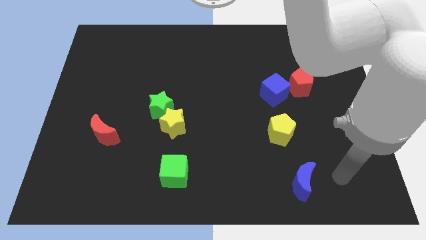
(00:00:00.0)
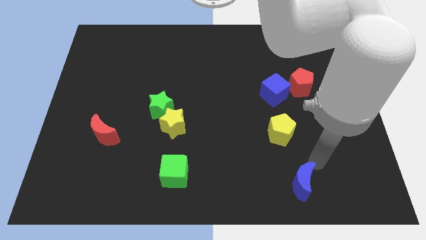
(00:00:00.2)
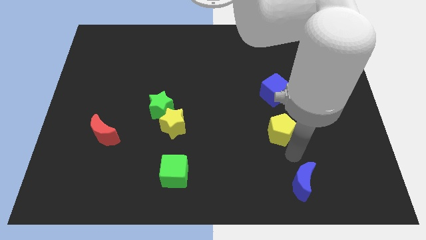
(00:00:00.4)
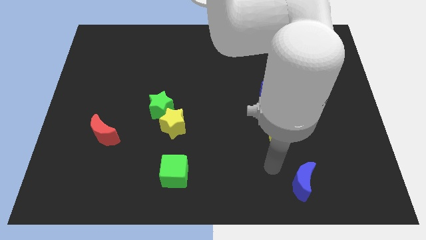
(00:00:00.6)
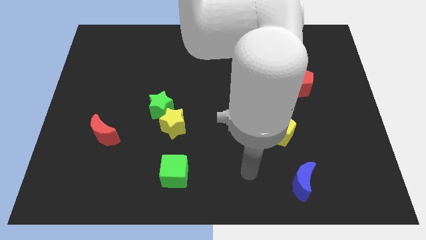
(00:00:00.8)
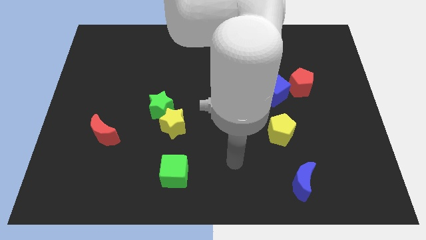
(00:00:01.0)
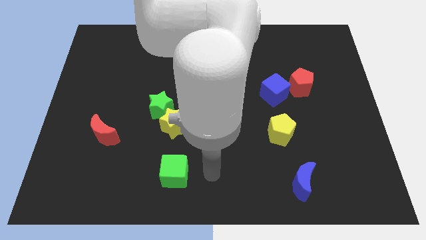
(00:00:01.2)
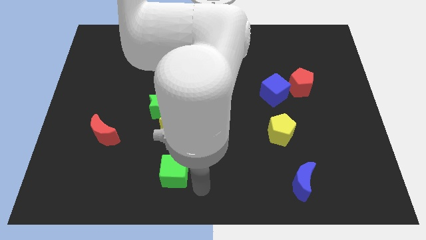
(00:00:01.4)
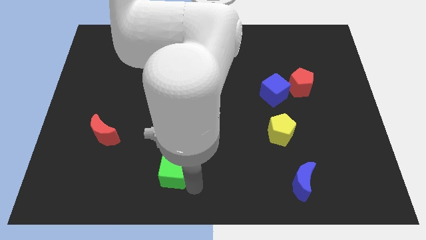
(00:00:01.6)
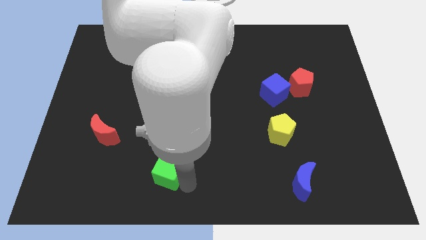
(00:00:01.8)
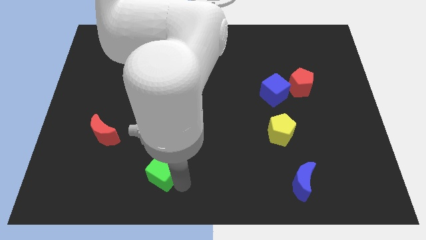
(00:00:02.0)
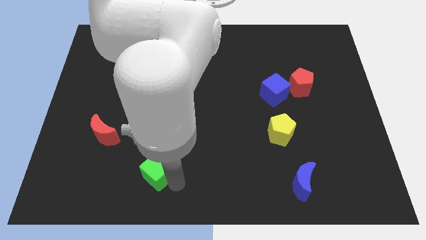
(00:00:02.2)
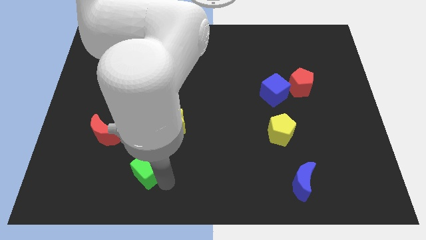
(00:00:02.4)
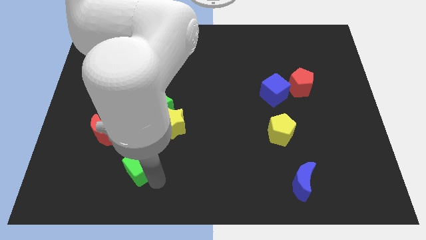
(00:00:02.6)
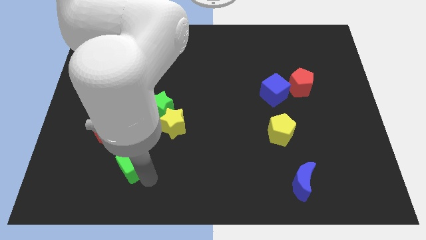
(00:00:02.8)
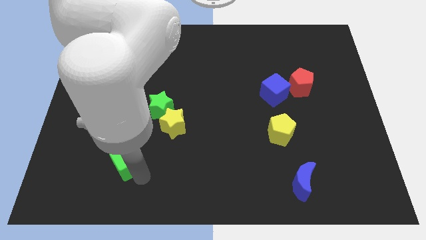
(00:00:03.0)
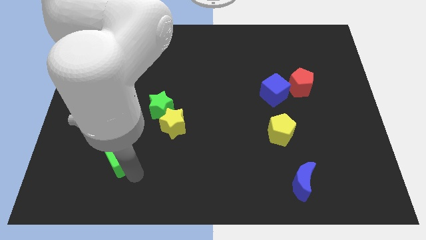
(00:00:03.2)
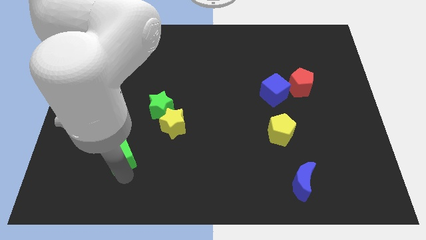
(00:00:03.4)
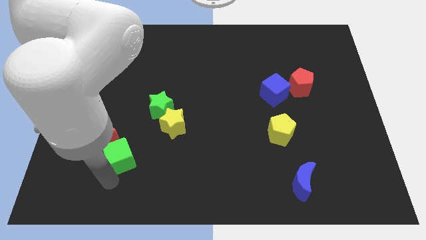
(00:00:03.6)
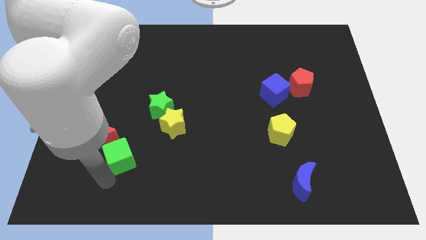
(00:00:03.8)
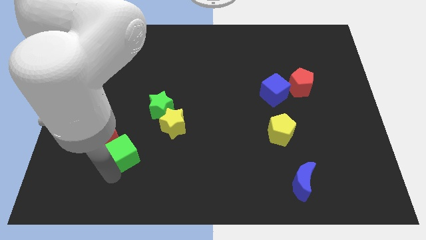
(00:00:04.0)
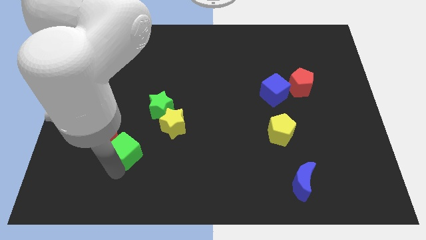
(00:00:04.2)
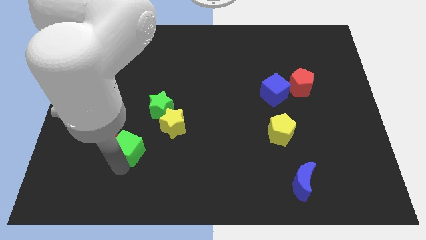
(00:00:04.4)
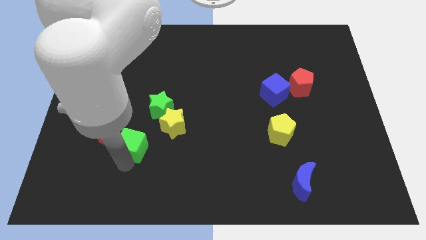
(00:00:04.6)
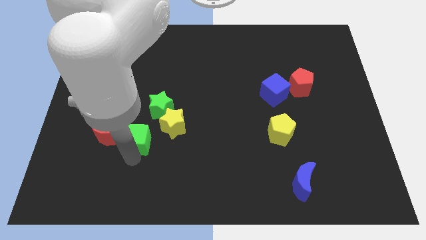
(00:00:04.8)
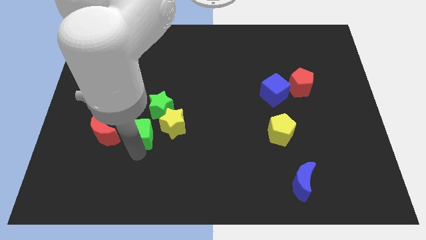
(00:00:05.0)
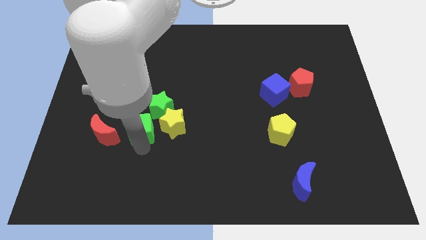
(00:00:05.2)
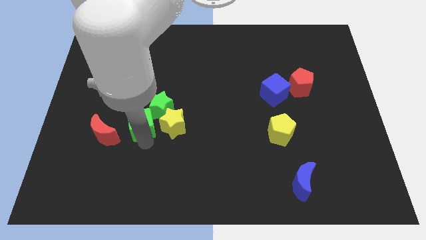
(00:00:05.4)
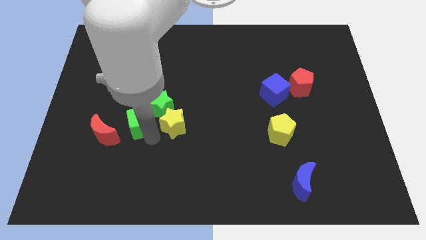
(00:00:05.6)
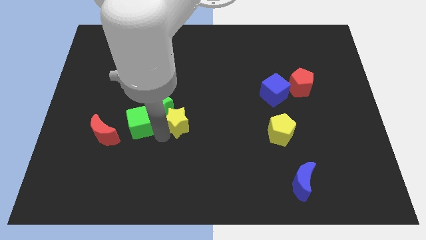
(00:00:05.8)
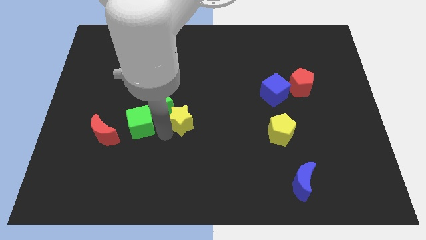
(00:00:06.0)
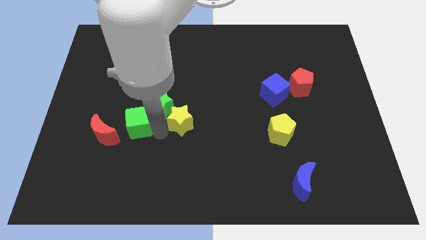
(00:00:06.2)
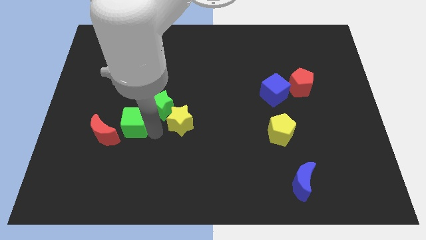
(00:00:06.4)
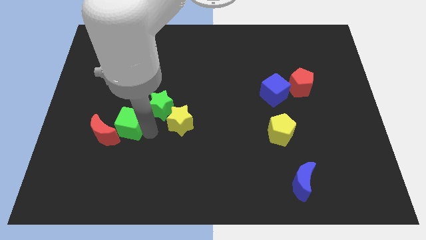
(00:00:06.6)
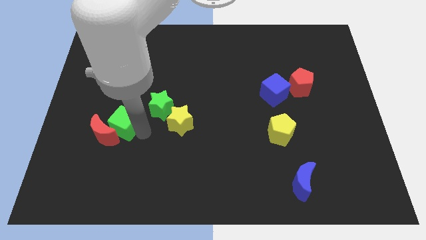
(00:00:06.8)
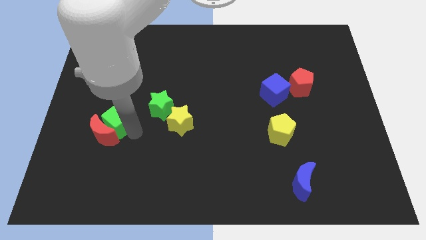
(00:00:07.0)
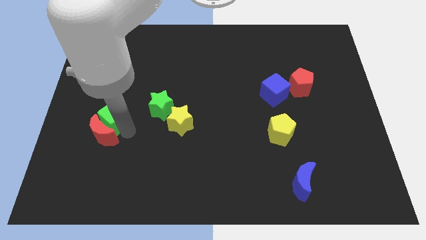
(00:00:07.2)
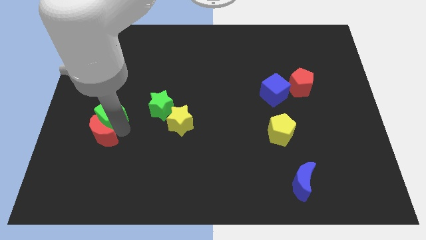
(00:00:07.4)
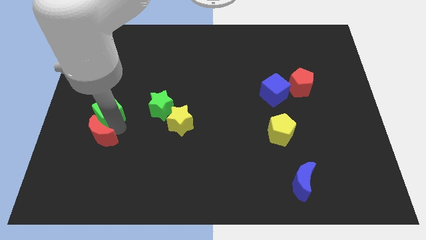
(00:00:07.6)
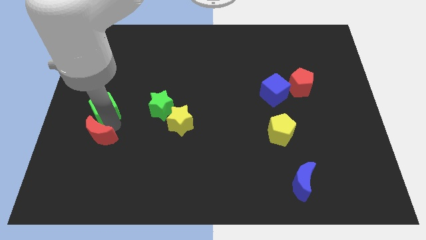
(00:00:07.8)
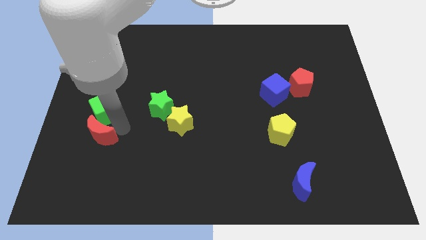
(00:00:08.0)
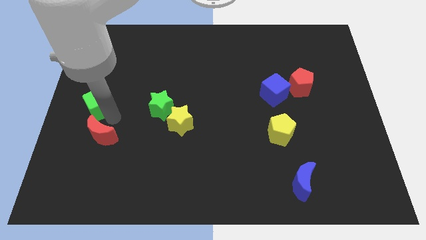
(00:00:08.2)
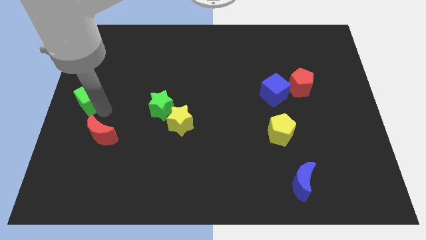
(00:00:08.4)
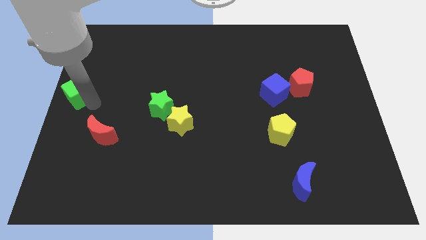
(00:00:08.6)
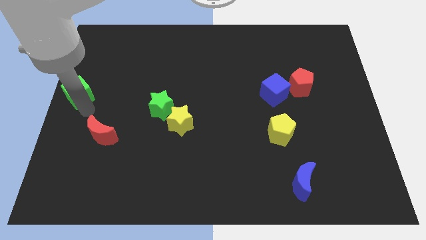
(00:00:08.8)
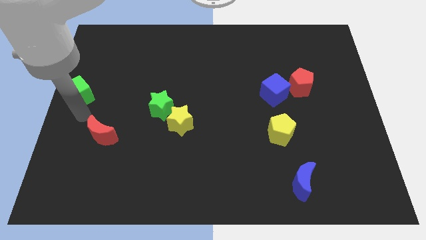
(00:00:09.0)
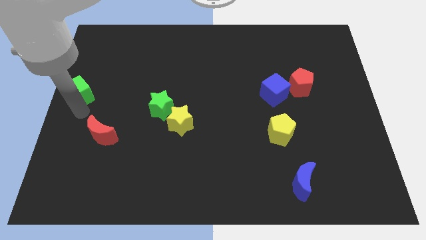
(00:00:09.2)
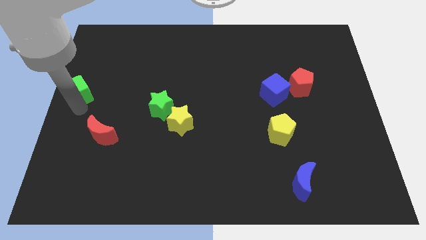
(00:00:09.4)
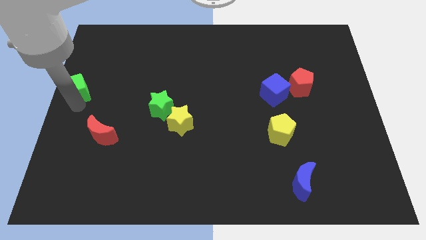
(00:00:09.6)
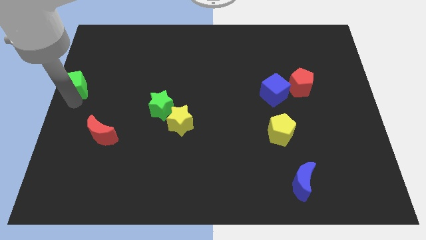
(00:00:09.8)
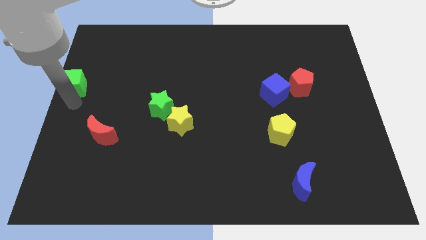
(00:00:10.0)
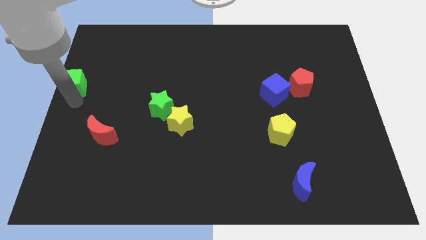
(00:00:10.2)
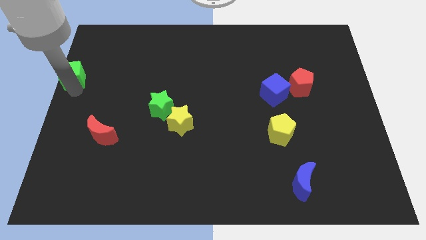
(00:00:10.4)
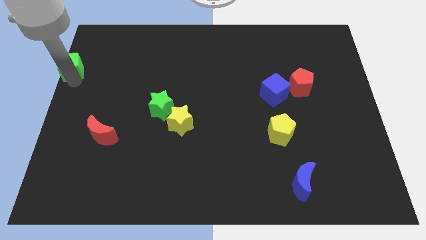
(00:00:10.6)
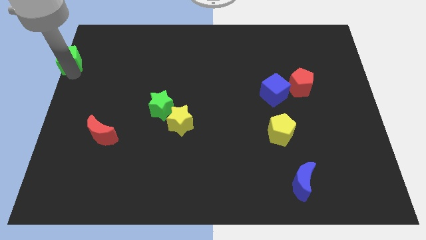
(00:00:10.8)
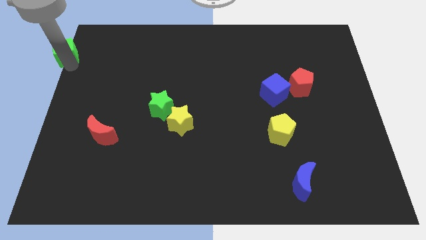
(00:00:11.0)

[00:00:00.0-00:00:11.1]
slide the green cube to the top left

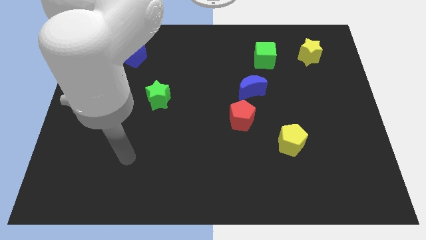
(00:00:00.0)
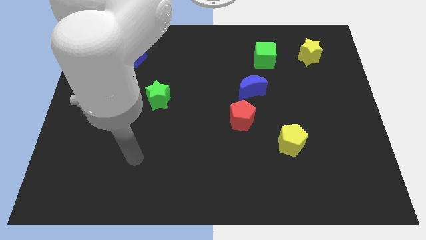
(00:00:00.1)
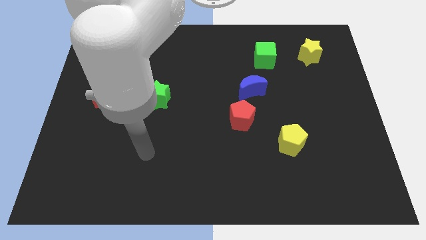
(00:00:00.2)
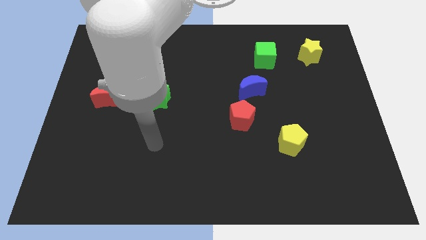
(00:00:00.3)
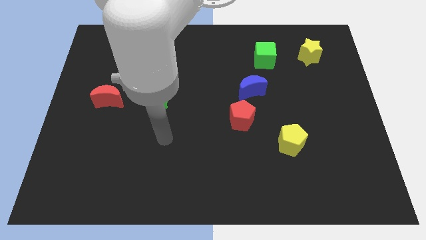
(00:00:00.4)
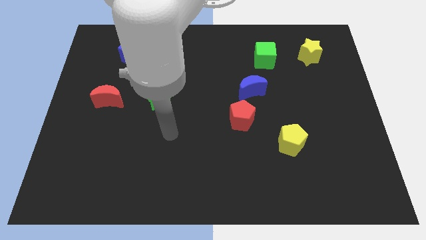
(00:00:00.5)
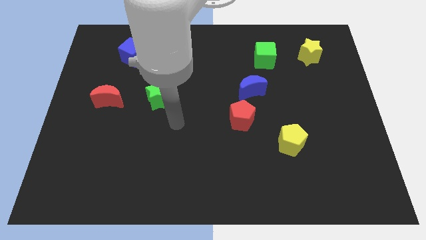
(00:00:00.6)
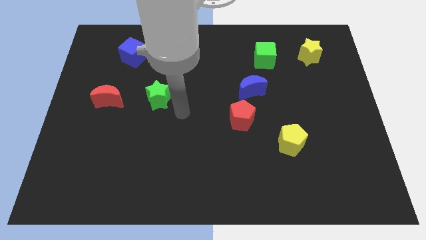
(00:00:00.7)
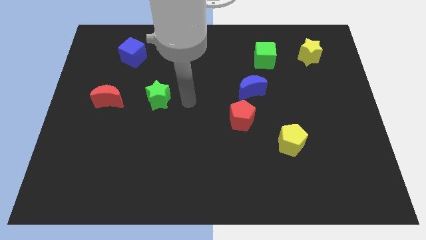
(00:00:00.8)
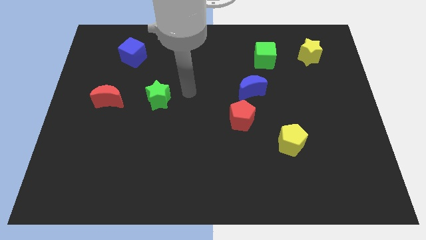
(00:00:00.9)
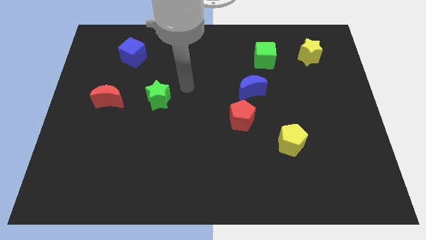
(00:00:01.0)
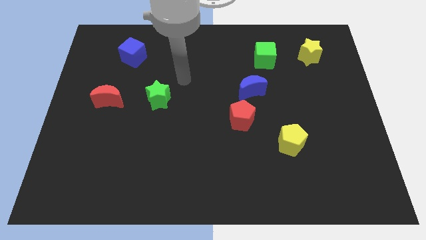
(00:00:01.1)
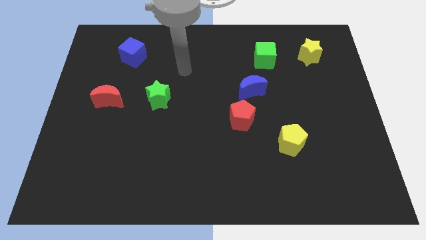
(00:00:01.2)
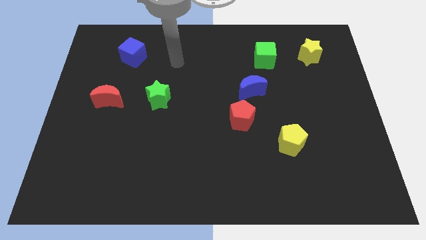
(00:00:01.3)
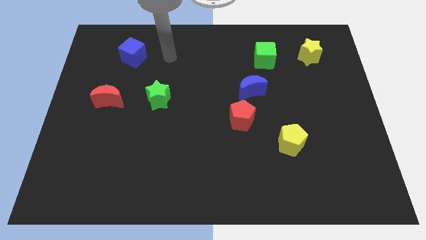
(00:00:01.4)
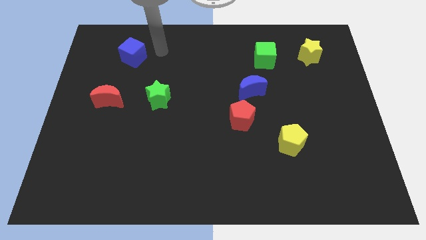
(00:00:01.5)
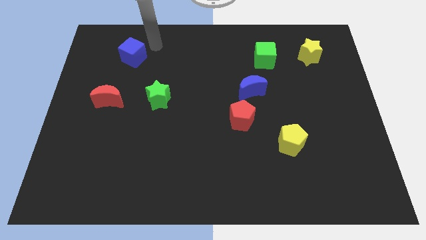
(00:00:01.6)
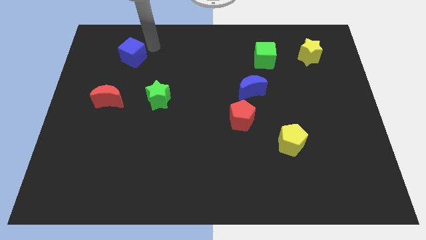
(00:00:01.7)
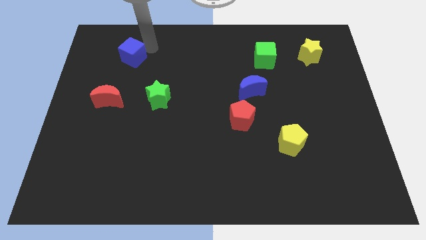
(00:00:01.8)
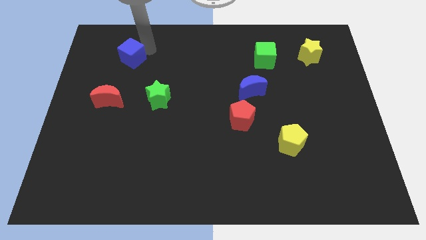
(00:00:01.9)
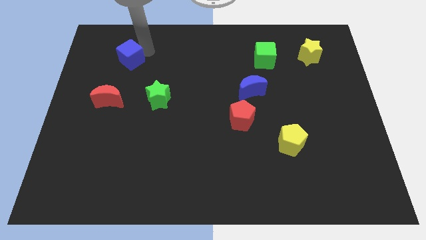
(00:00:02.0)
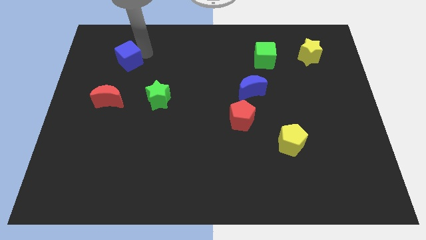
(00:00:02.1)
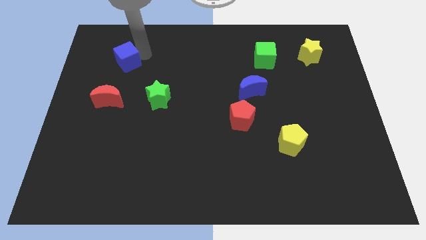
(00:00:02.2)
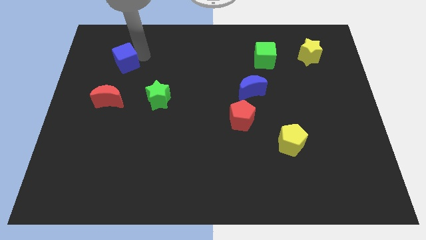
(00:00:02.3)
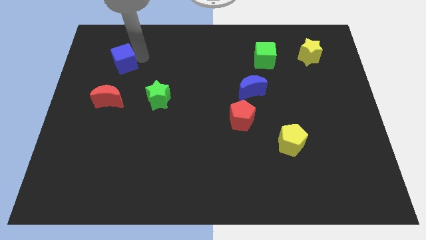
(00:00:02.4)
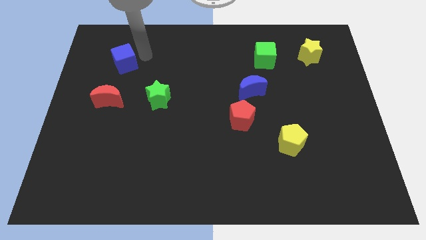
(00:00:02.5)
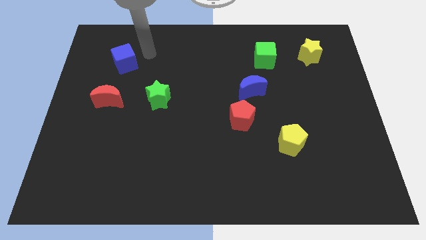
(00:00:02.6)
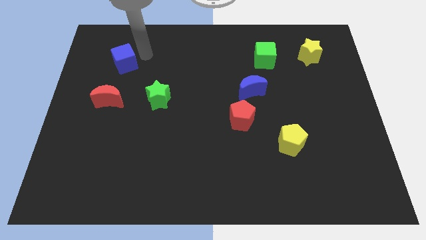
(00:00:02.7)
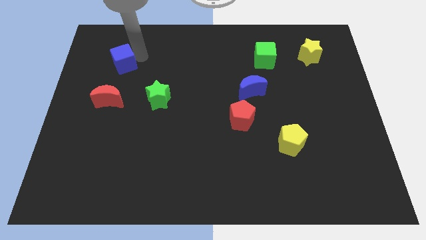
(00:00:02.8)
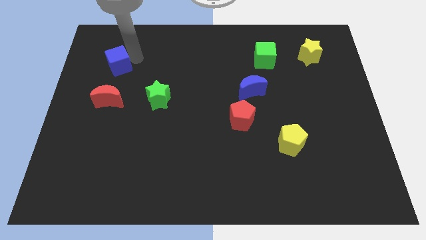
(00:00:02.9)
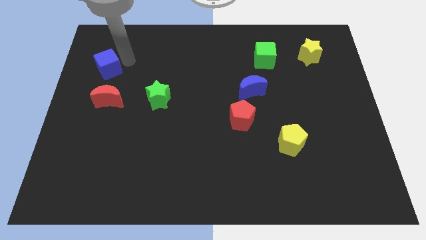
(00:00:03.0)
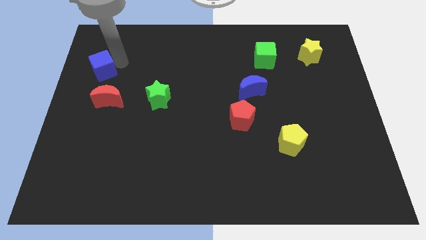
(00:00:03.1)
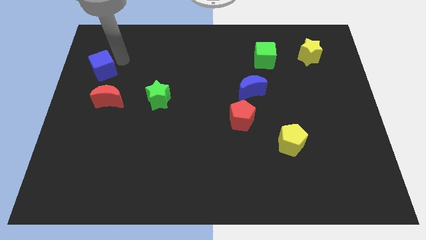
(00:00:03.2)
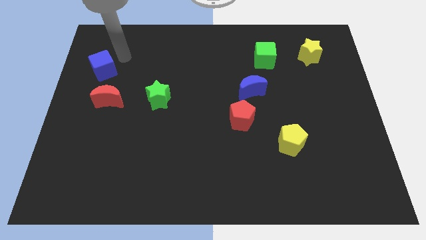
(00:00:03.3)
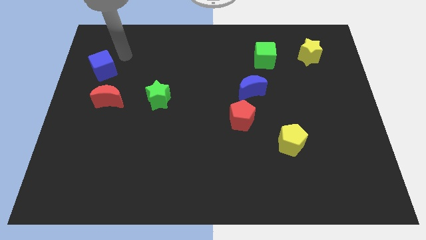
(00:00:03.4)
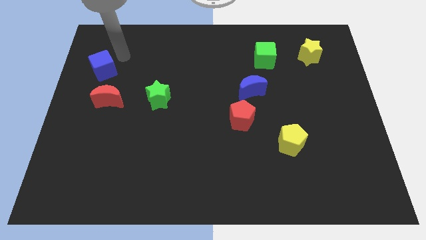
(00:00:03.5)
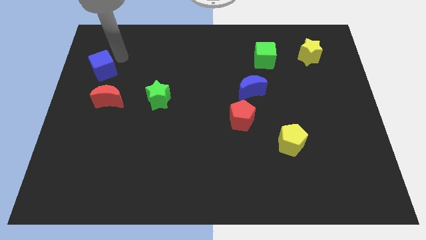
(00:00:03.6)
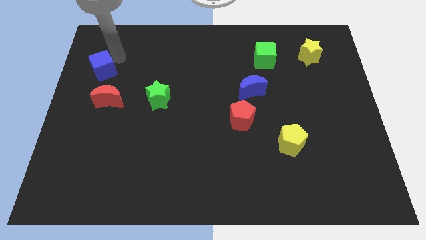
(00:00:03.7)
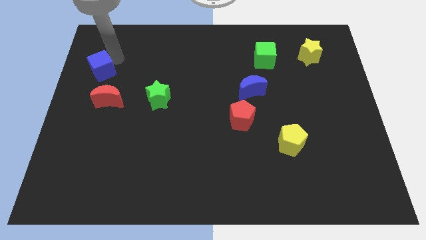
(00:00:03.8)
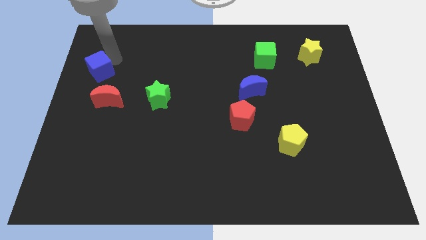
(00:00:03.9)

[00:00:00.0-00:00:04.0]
put the blue cube to the left side of the board
